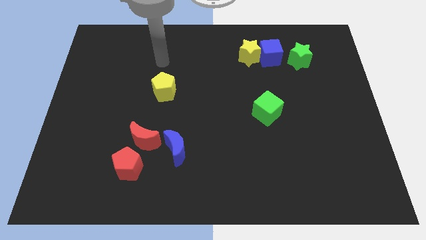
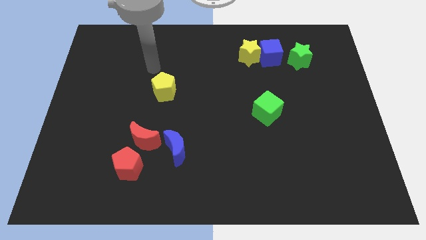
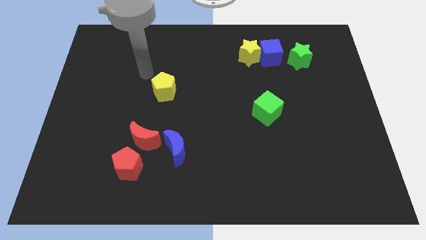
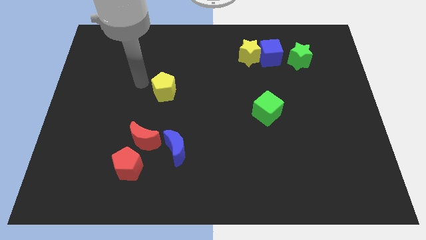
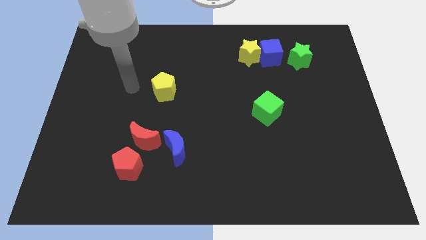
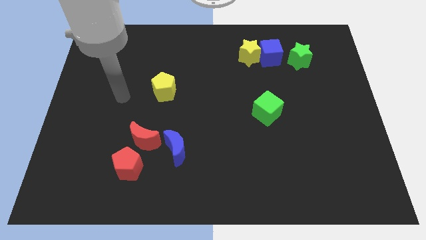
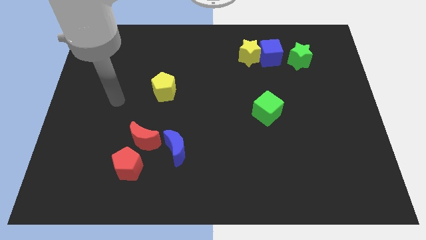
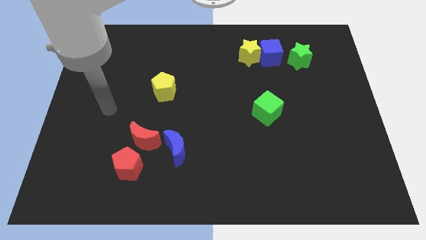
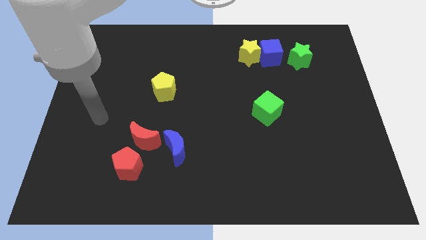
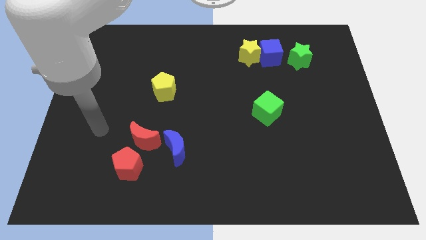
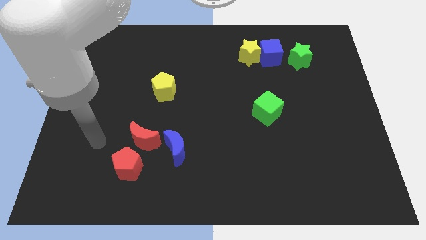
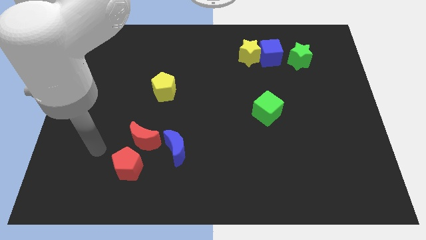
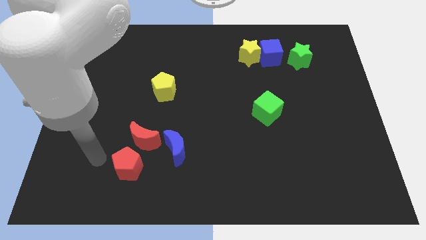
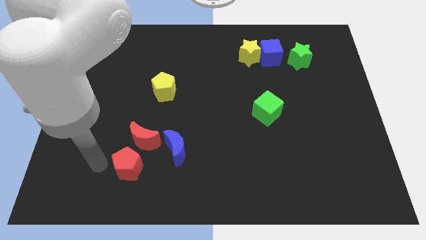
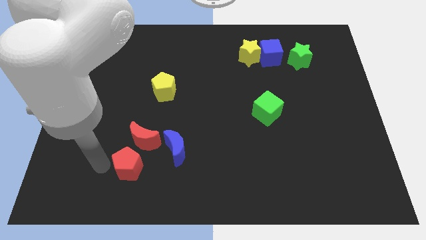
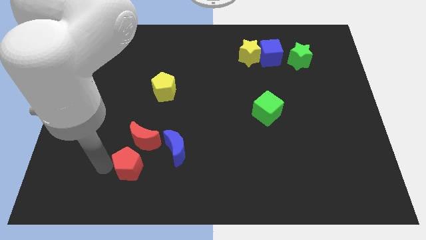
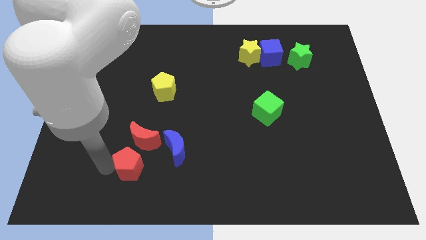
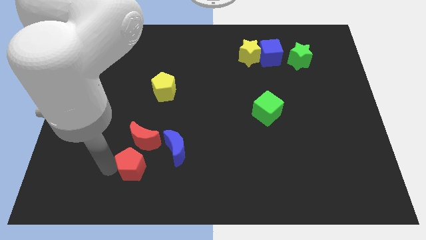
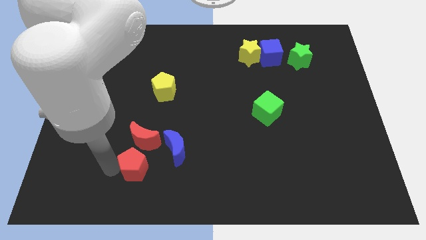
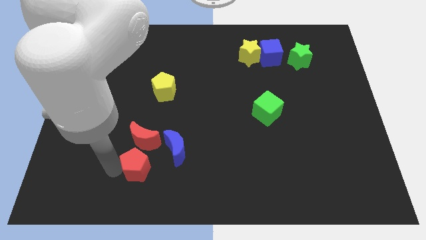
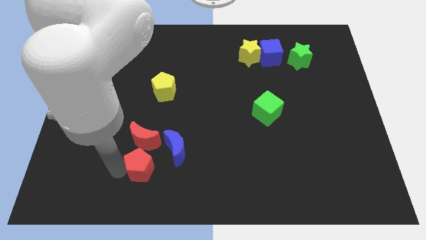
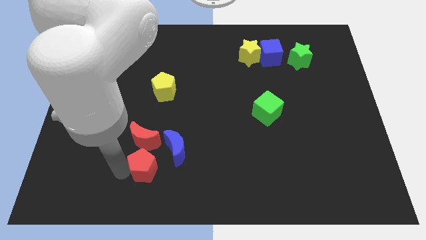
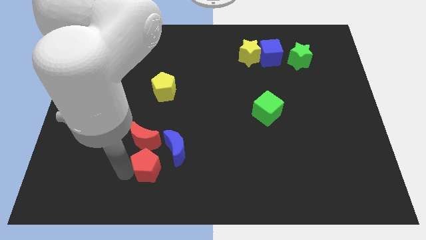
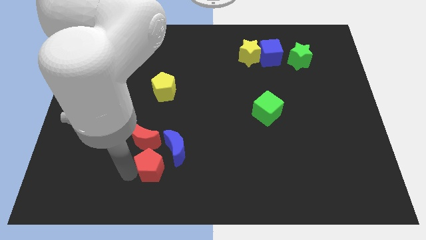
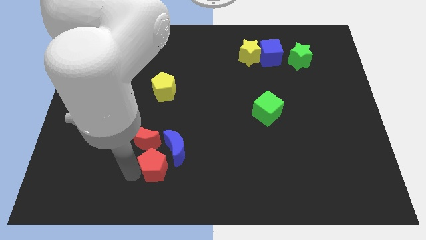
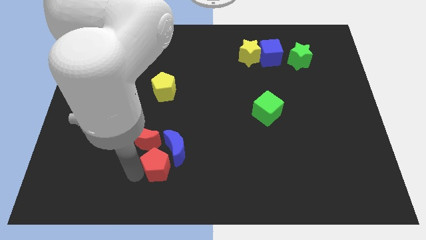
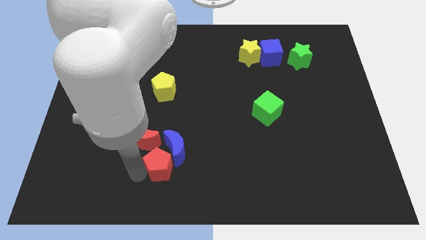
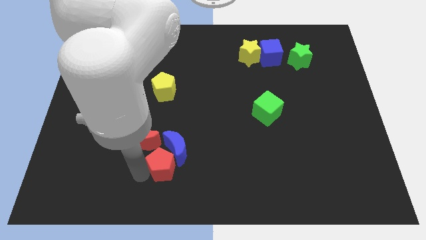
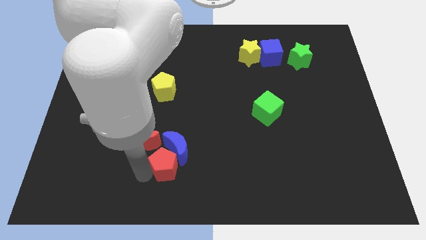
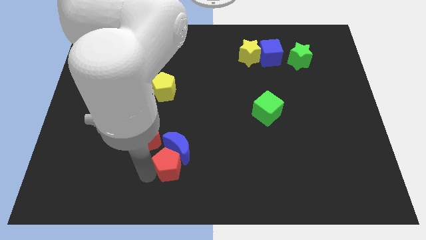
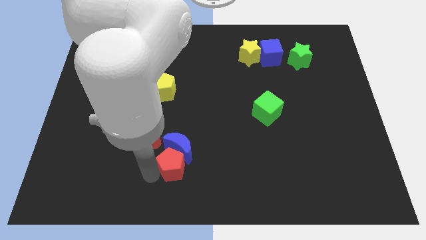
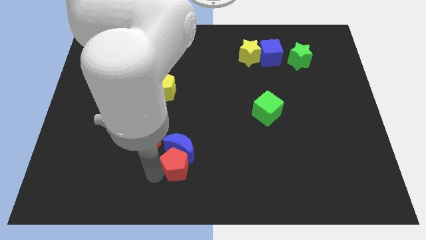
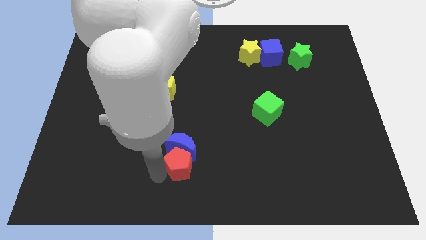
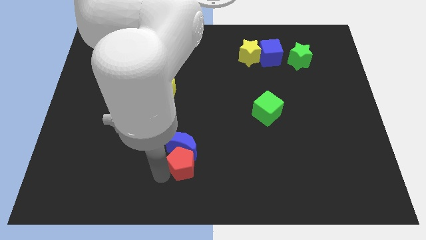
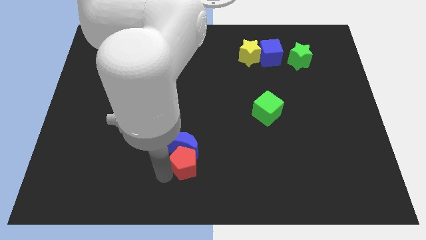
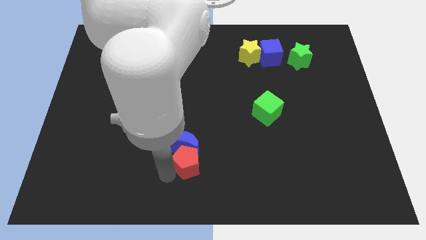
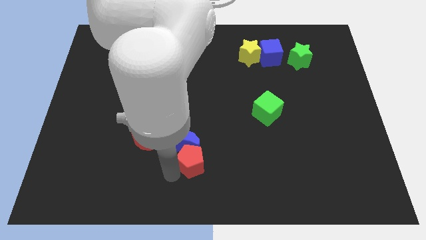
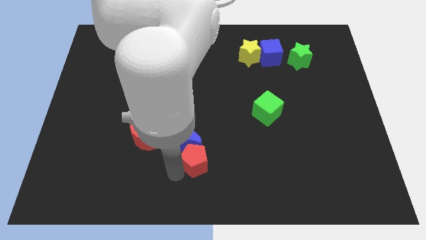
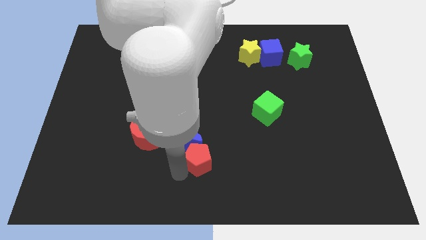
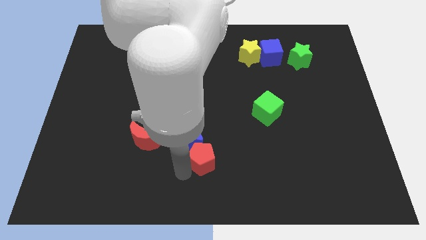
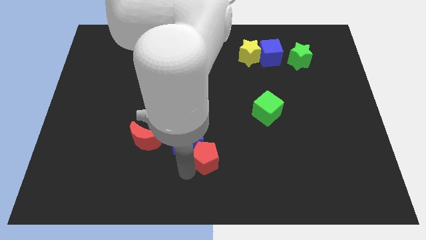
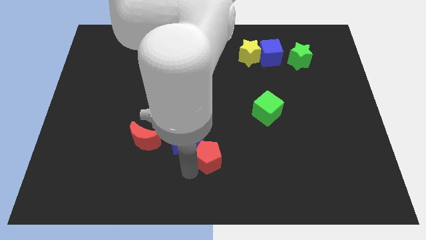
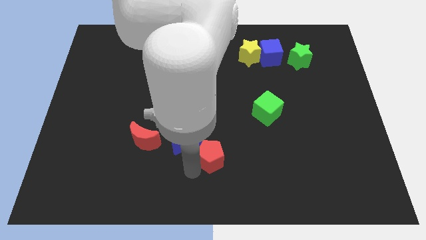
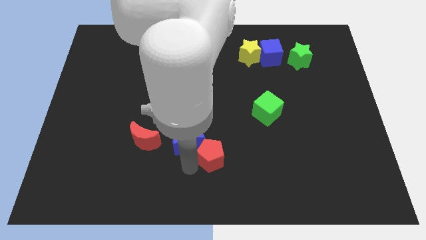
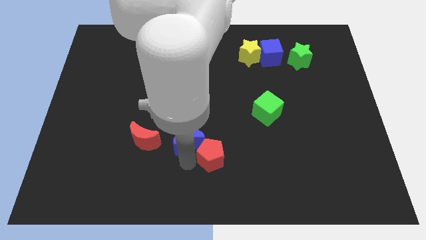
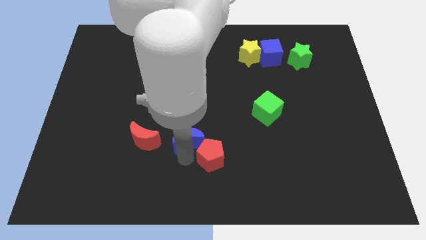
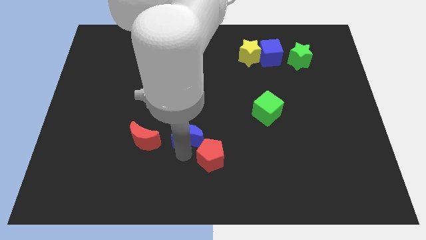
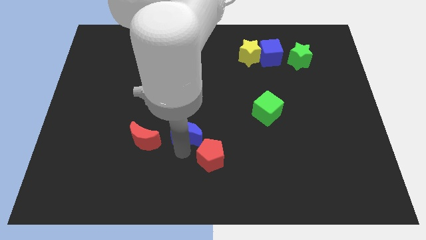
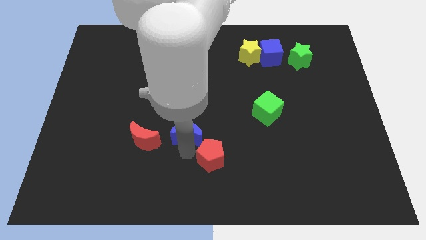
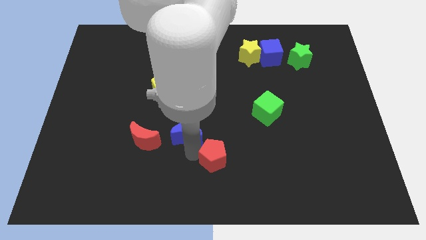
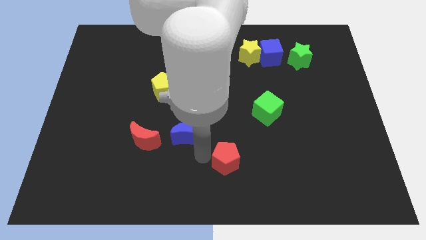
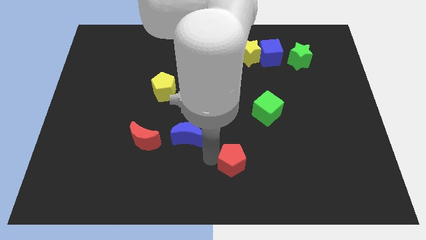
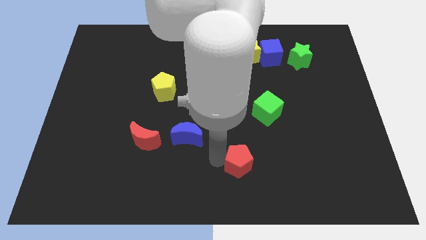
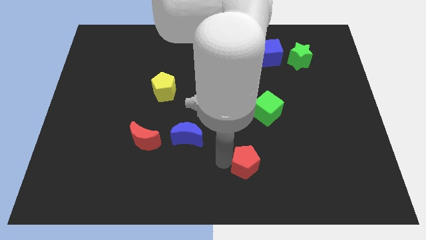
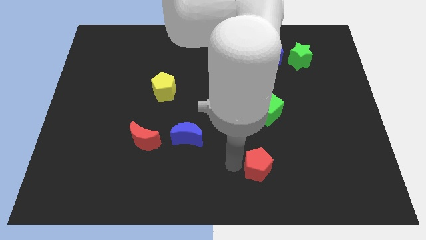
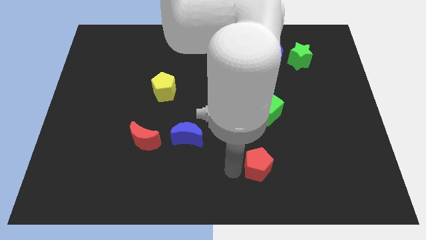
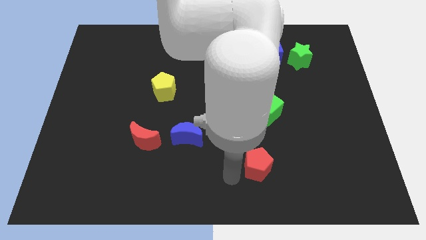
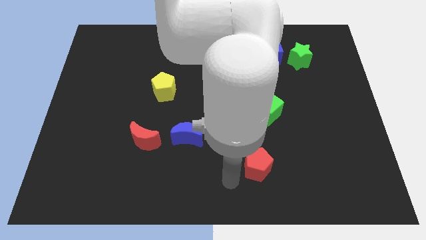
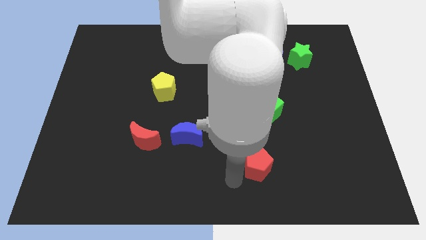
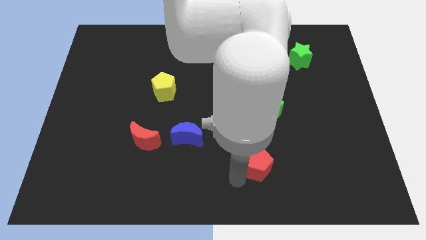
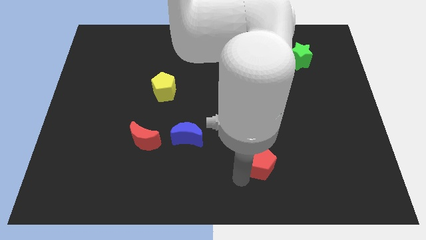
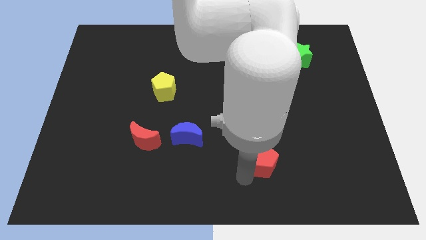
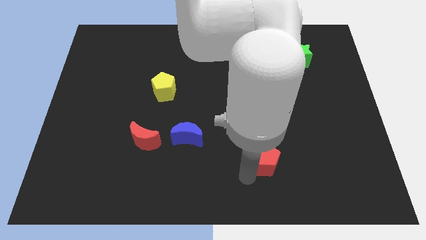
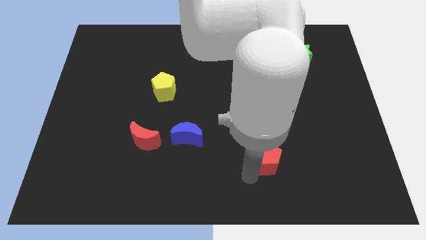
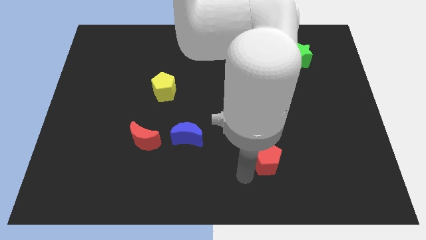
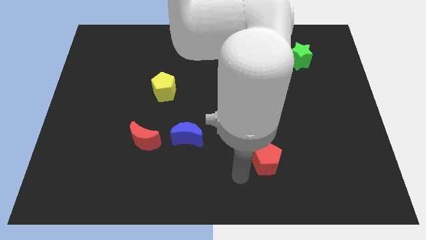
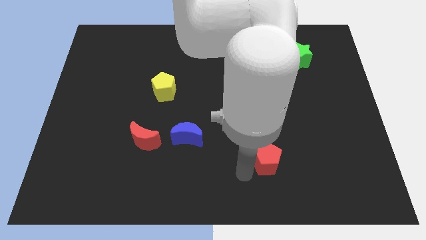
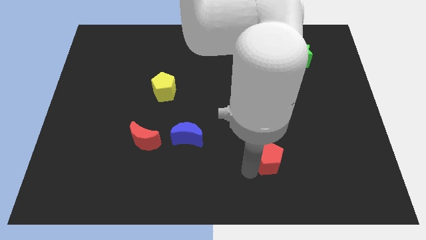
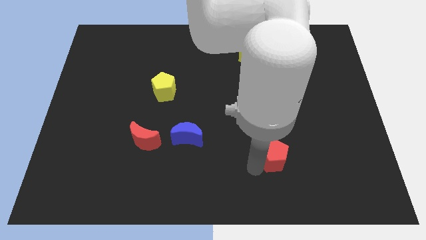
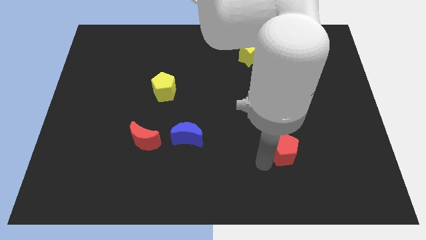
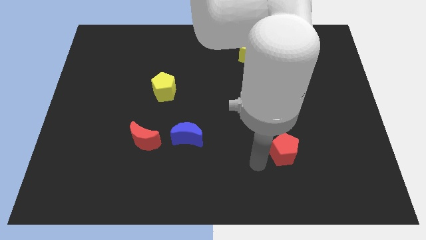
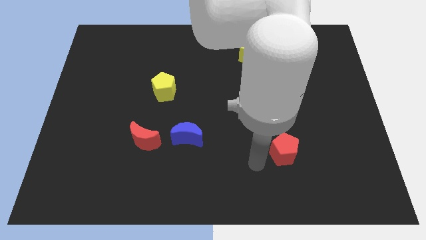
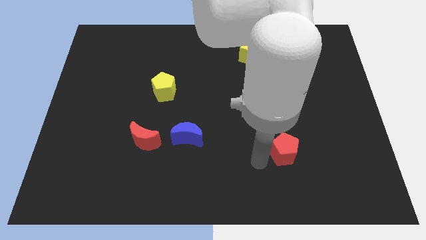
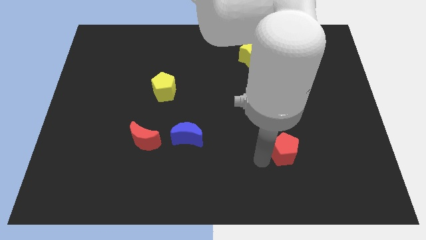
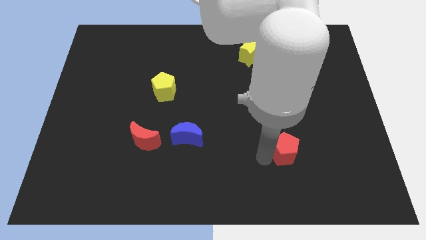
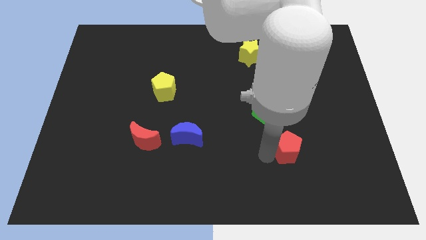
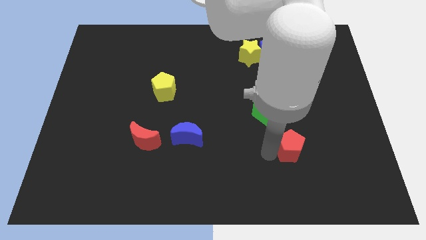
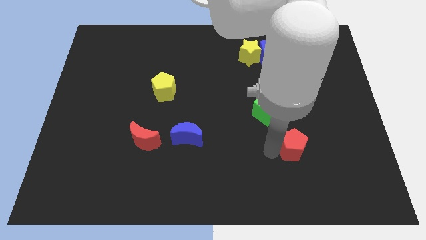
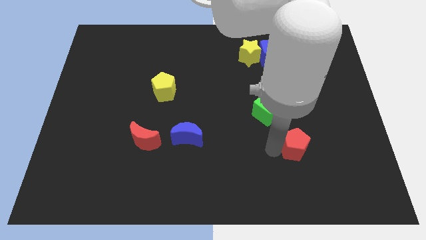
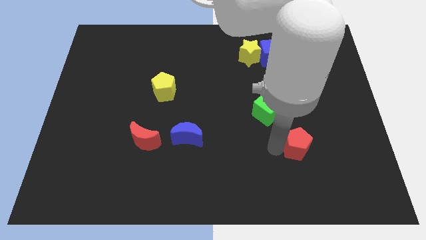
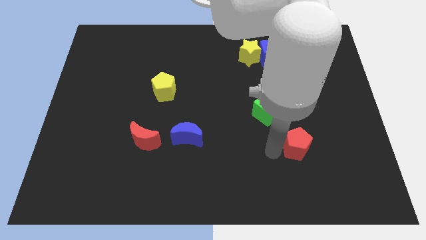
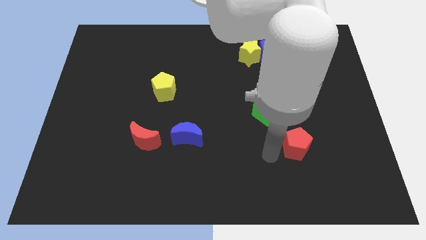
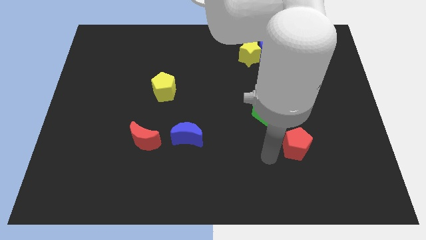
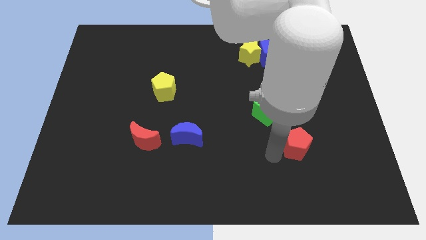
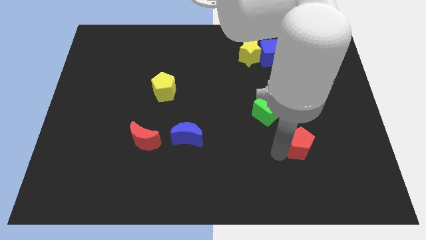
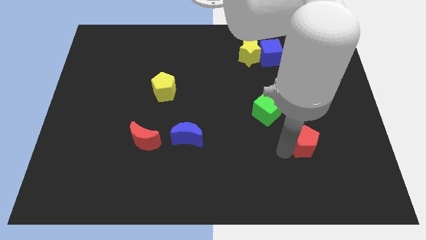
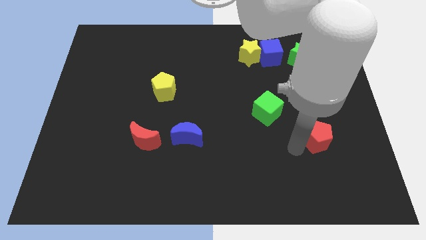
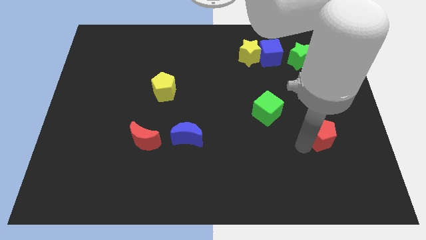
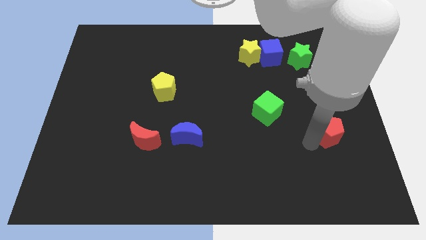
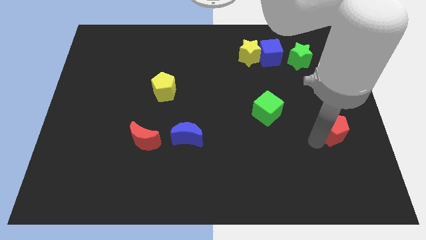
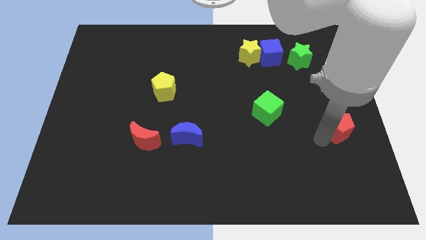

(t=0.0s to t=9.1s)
move the red pentagon to the right side
